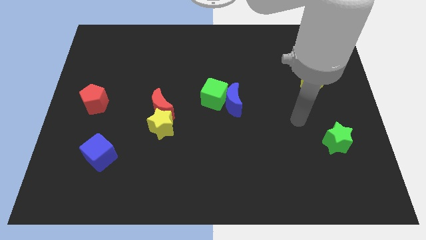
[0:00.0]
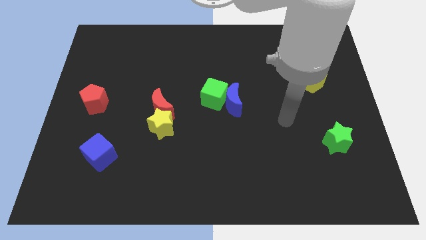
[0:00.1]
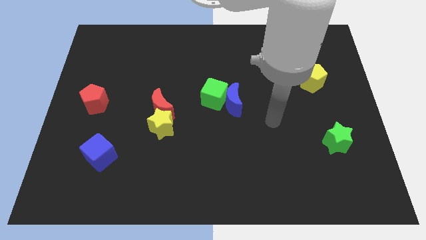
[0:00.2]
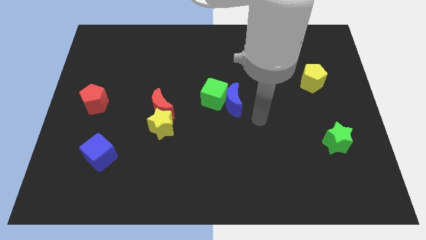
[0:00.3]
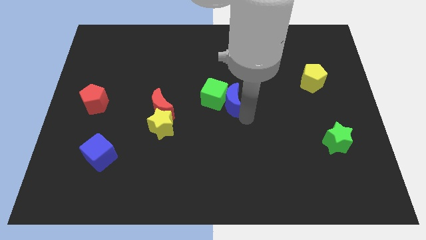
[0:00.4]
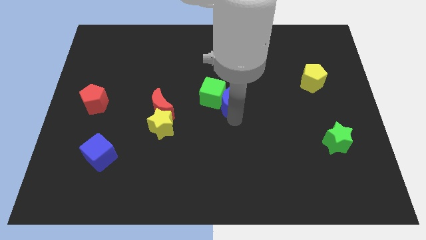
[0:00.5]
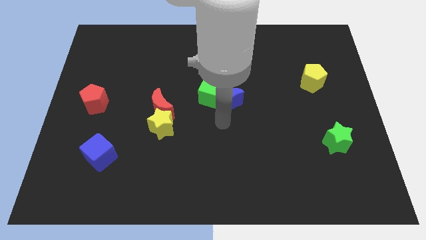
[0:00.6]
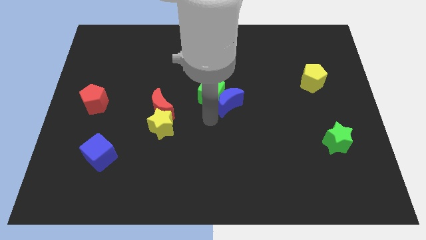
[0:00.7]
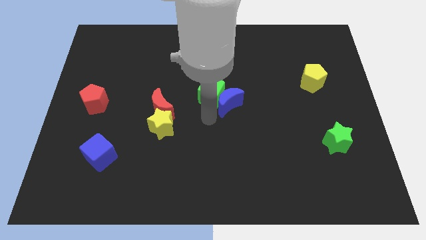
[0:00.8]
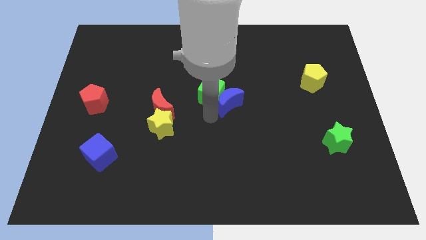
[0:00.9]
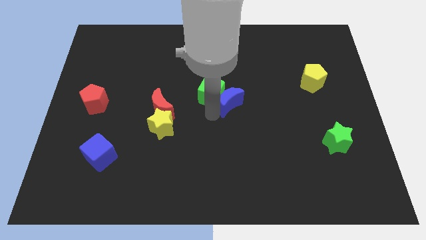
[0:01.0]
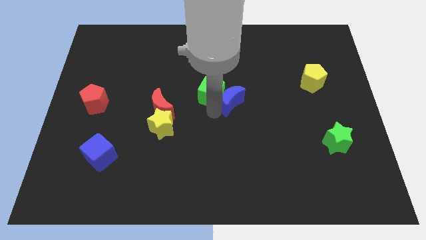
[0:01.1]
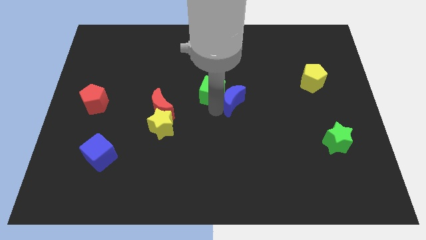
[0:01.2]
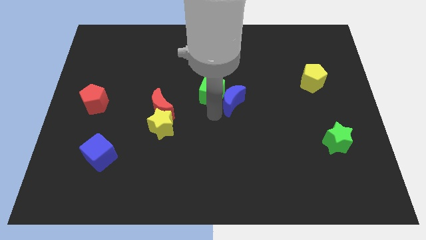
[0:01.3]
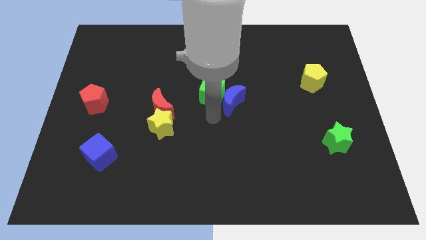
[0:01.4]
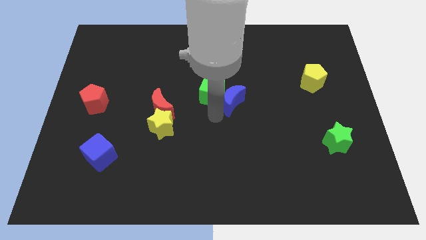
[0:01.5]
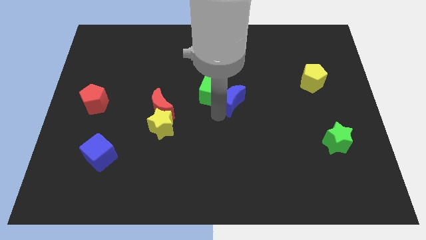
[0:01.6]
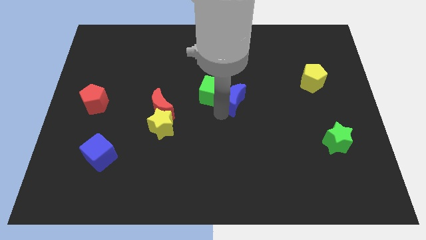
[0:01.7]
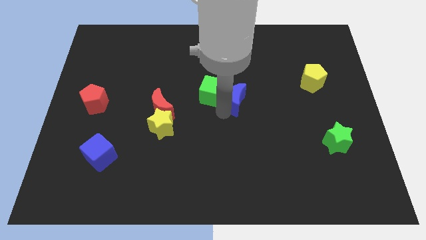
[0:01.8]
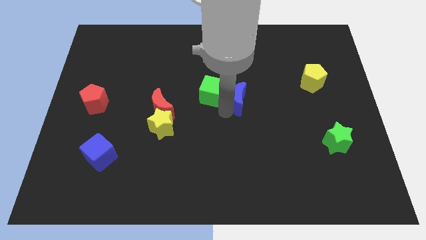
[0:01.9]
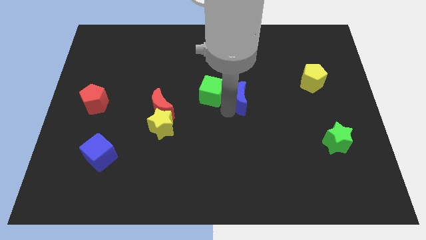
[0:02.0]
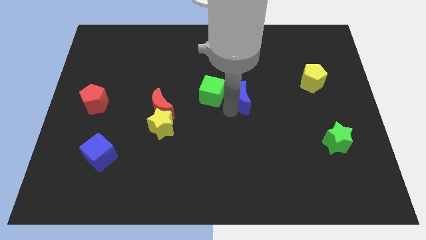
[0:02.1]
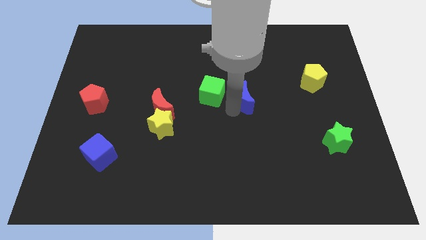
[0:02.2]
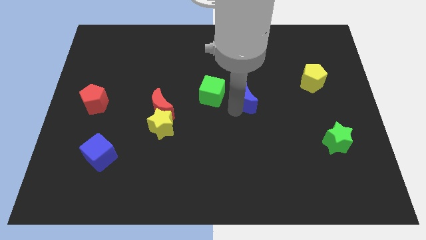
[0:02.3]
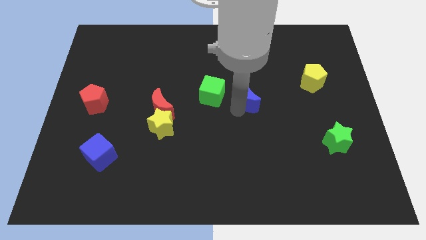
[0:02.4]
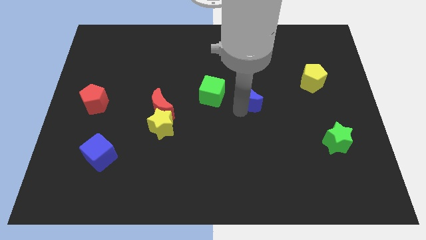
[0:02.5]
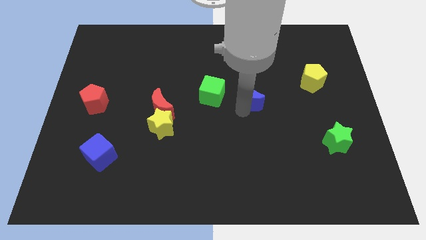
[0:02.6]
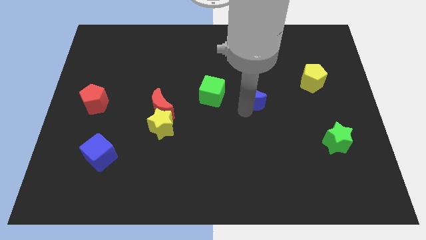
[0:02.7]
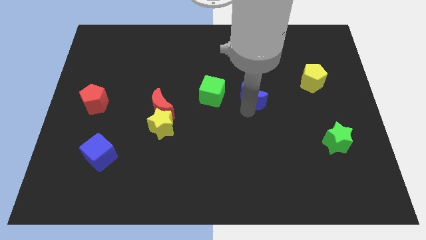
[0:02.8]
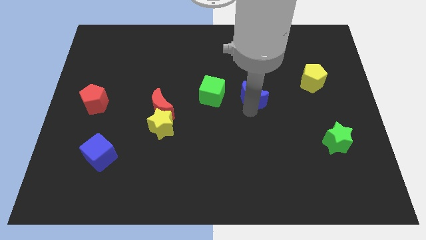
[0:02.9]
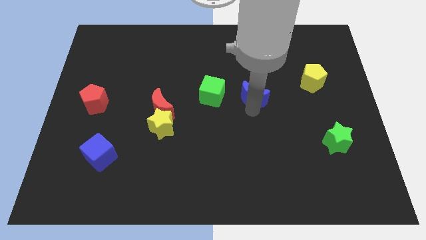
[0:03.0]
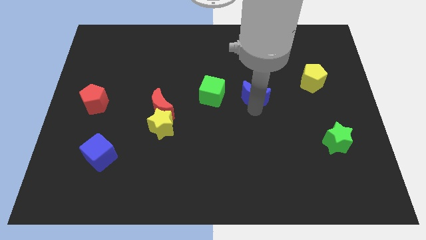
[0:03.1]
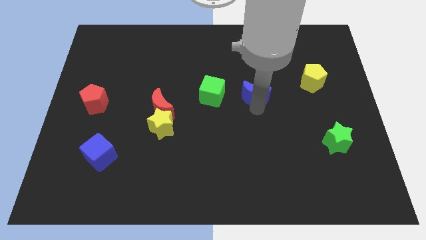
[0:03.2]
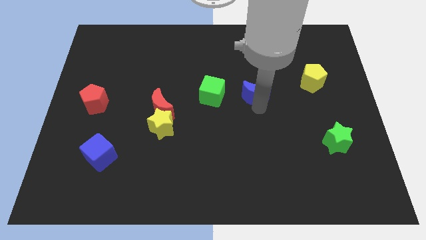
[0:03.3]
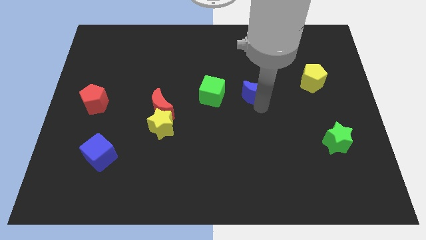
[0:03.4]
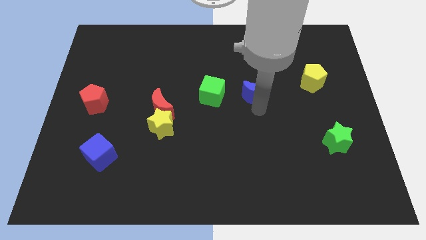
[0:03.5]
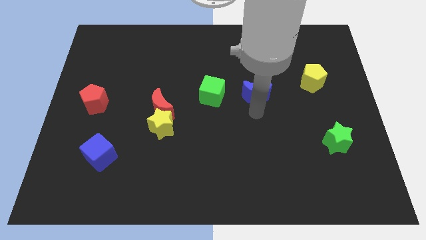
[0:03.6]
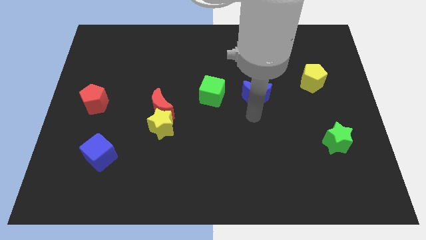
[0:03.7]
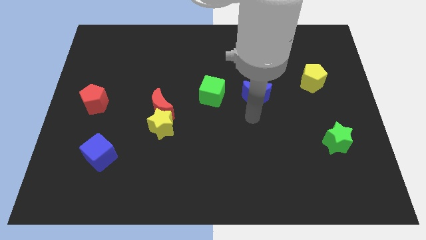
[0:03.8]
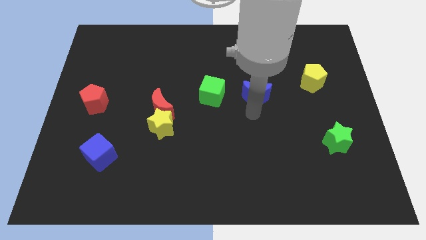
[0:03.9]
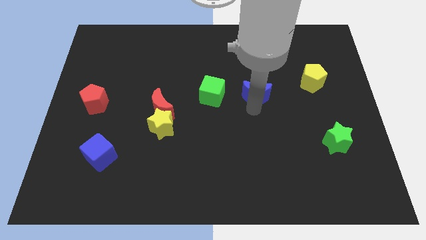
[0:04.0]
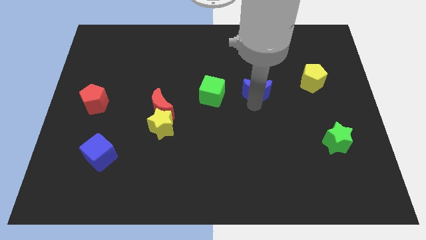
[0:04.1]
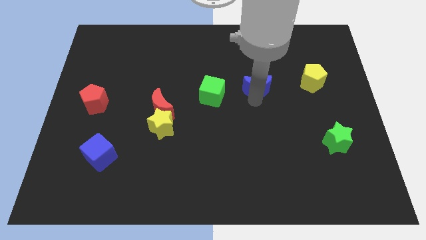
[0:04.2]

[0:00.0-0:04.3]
slightly move the blue moon diagonally up and right

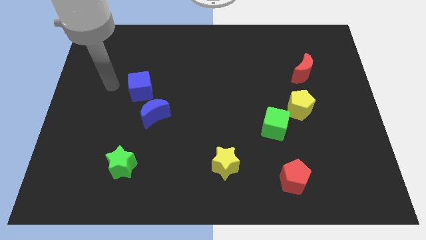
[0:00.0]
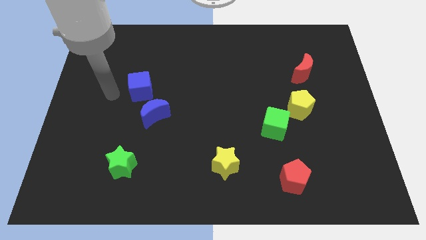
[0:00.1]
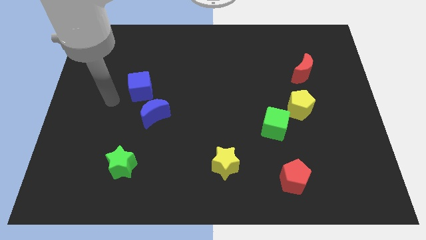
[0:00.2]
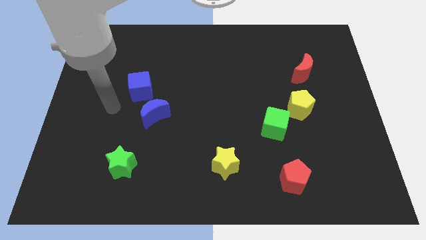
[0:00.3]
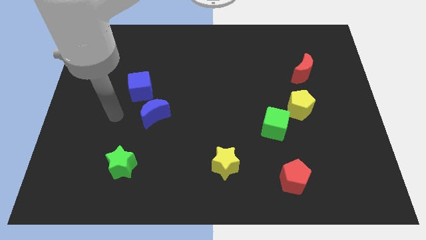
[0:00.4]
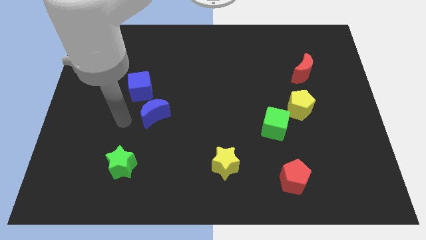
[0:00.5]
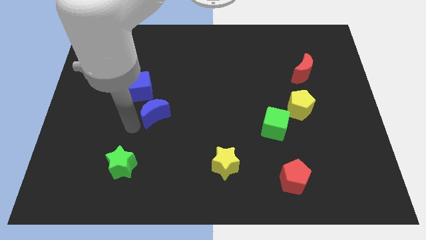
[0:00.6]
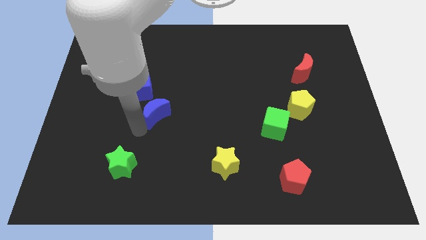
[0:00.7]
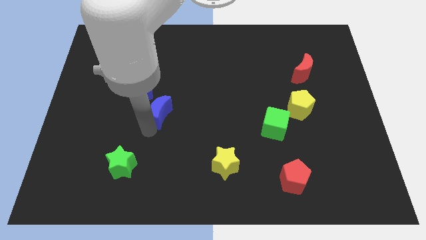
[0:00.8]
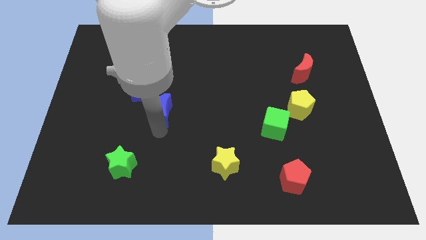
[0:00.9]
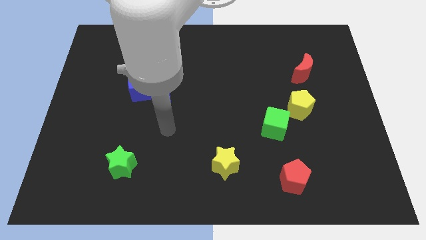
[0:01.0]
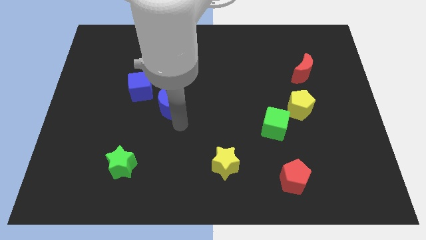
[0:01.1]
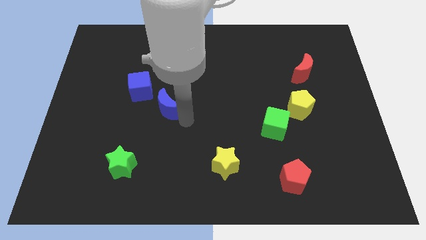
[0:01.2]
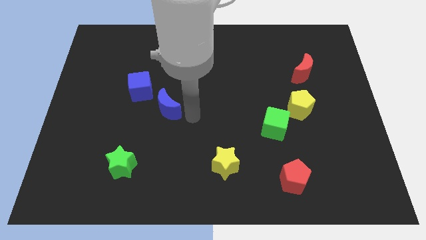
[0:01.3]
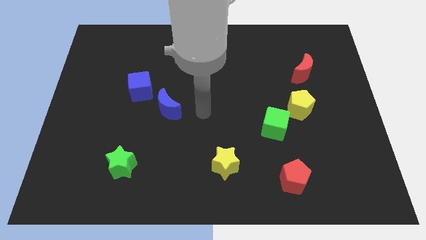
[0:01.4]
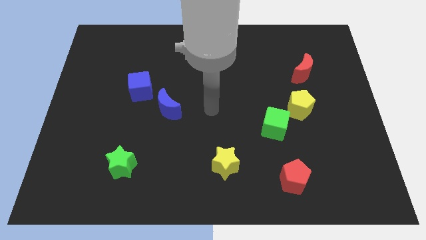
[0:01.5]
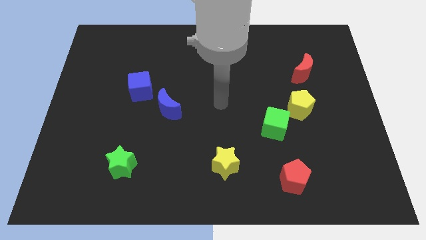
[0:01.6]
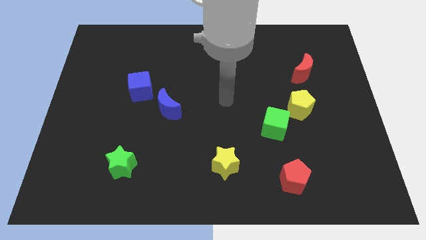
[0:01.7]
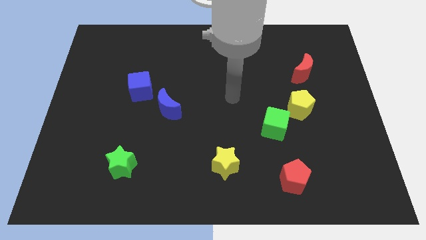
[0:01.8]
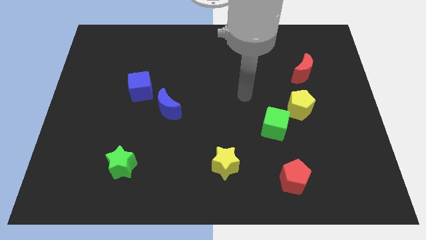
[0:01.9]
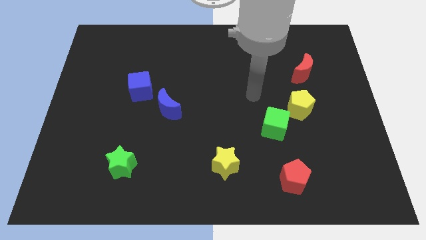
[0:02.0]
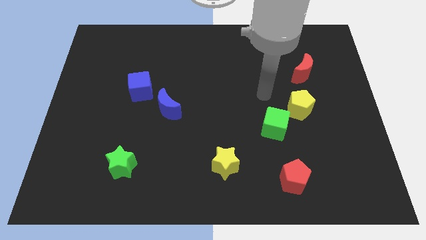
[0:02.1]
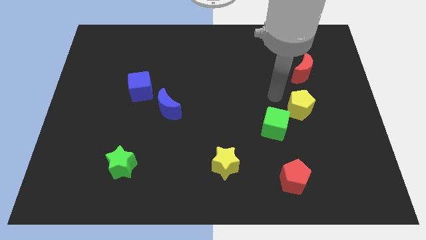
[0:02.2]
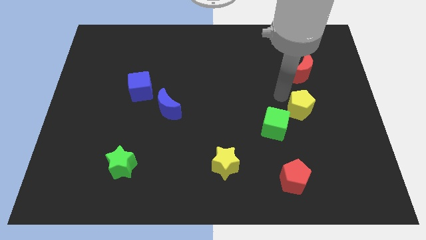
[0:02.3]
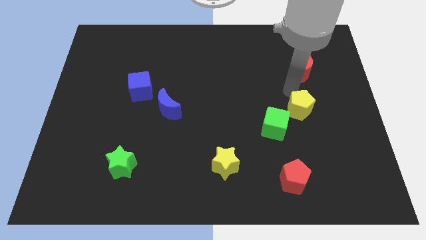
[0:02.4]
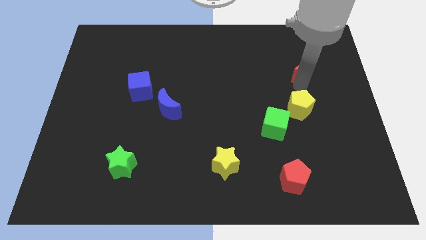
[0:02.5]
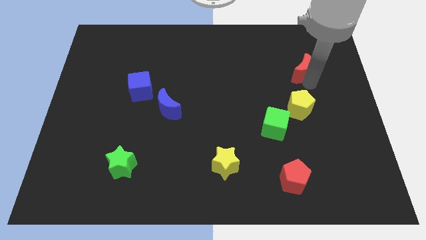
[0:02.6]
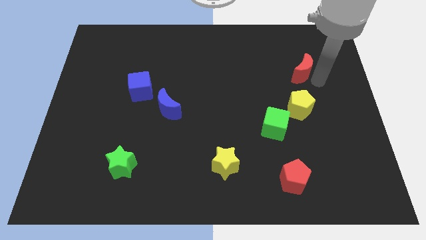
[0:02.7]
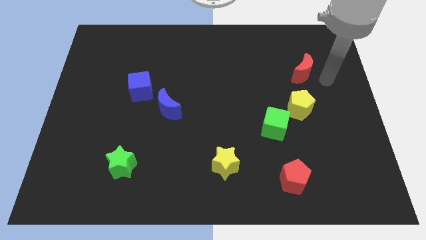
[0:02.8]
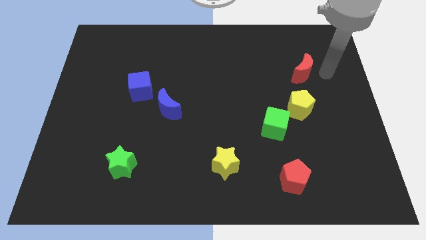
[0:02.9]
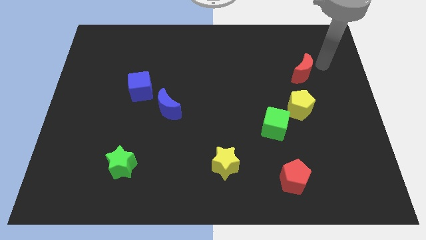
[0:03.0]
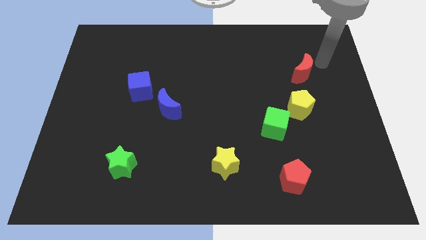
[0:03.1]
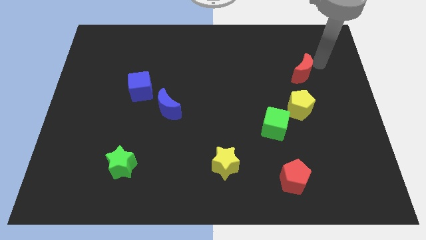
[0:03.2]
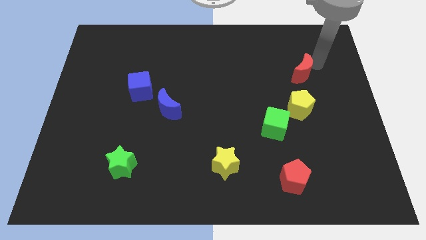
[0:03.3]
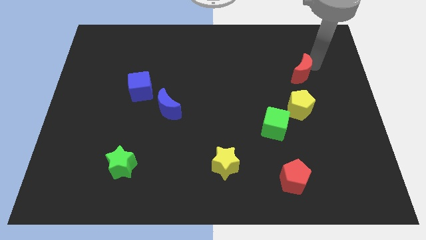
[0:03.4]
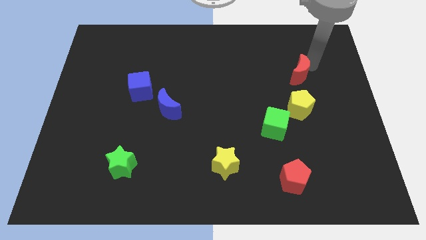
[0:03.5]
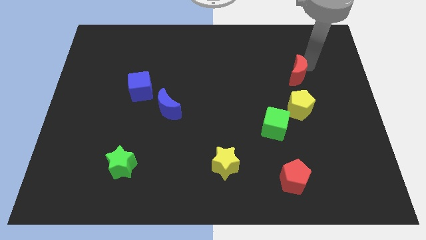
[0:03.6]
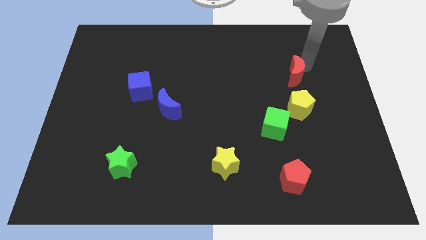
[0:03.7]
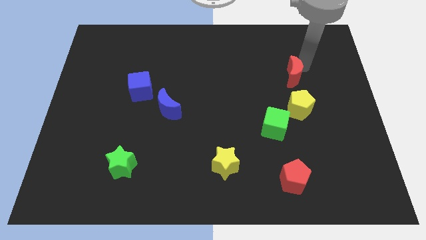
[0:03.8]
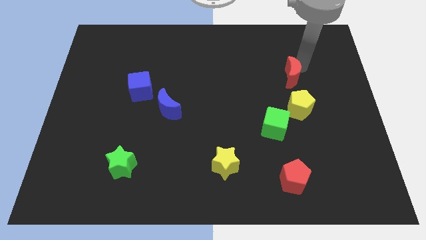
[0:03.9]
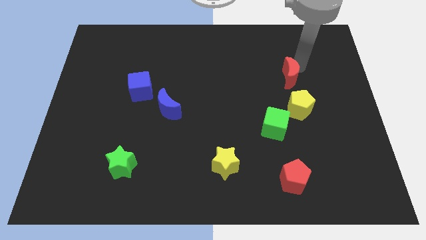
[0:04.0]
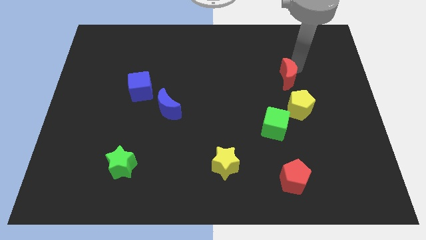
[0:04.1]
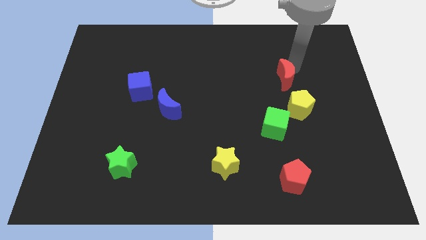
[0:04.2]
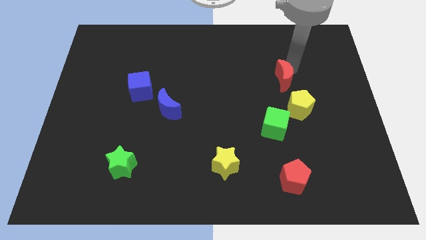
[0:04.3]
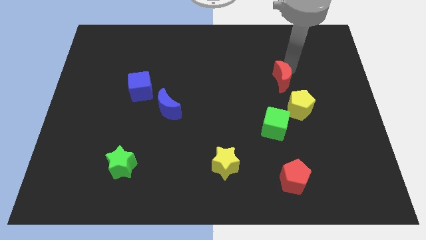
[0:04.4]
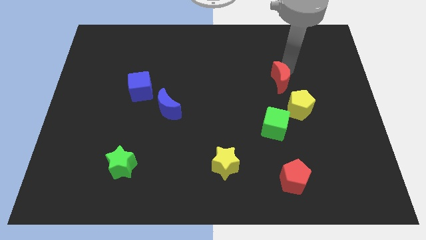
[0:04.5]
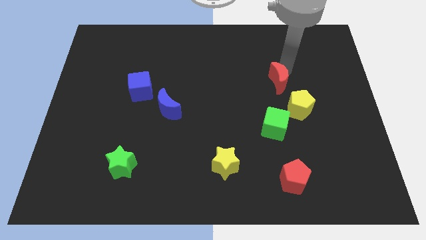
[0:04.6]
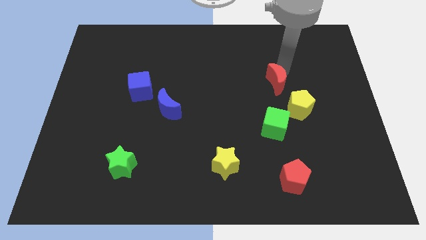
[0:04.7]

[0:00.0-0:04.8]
move the red moon a bit downwards and left diagonally
